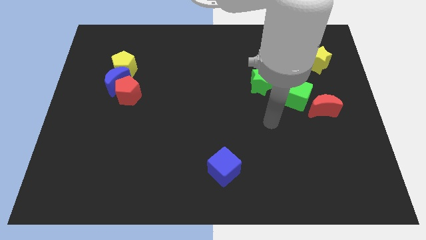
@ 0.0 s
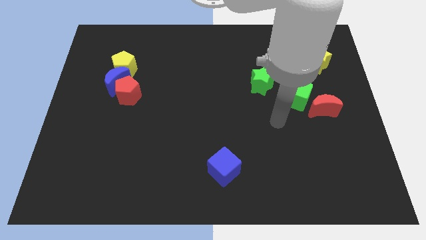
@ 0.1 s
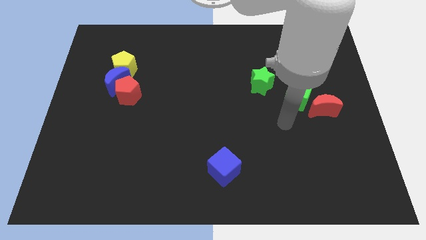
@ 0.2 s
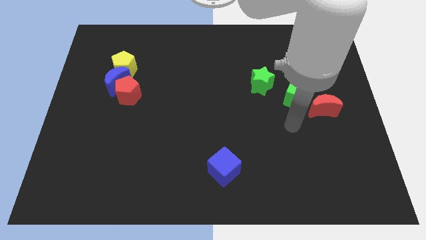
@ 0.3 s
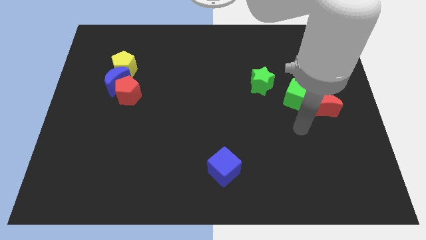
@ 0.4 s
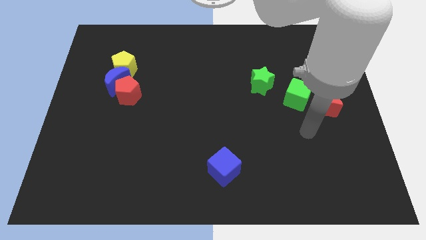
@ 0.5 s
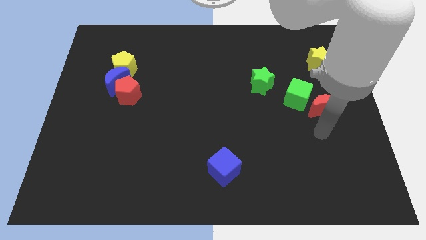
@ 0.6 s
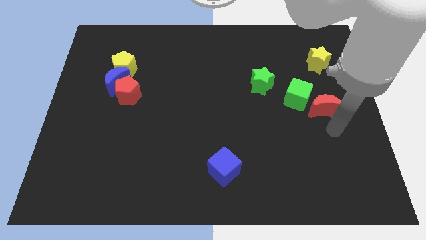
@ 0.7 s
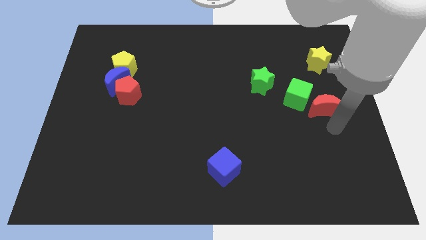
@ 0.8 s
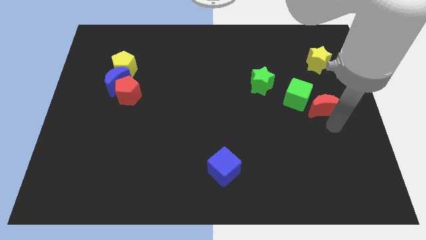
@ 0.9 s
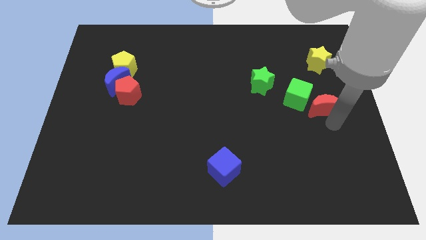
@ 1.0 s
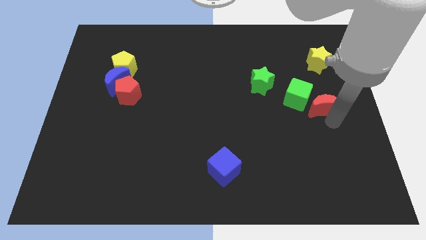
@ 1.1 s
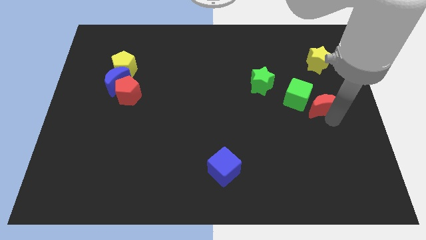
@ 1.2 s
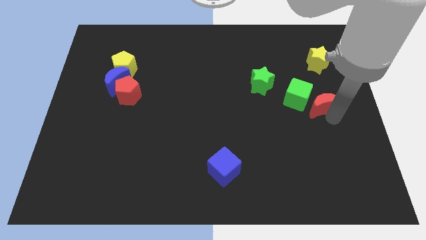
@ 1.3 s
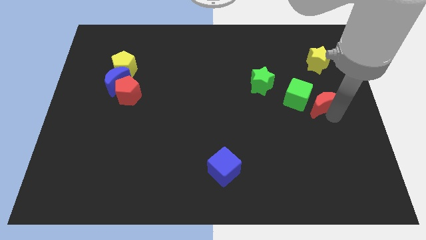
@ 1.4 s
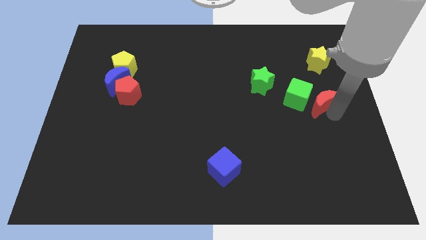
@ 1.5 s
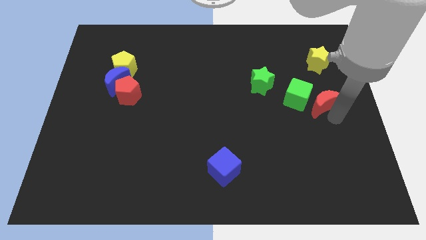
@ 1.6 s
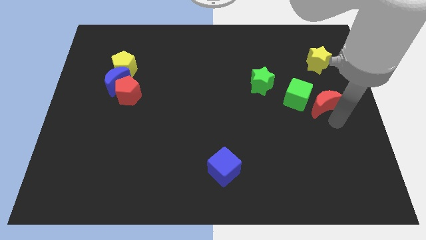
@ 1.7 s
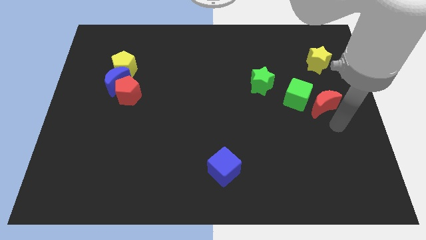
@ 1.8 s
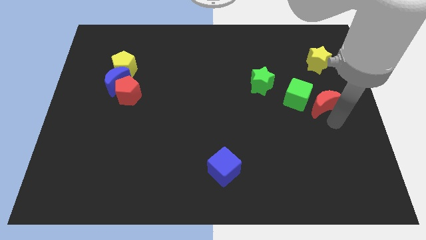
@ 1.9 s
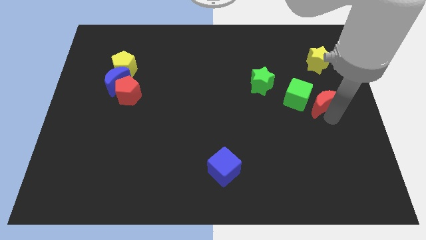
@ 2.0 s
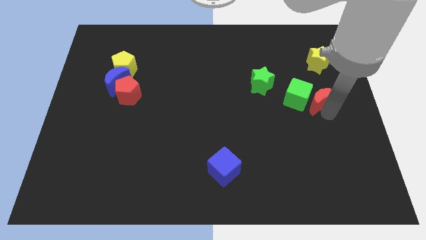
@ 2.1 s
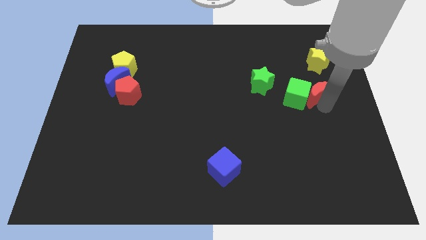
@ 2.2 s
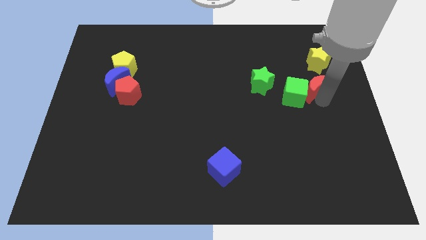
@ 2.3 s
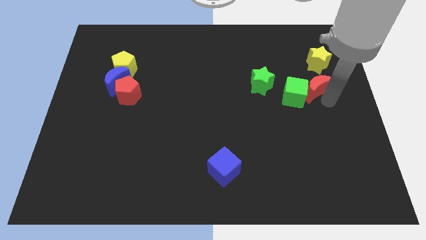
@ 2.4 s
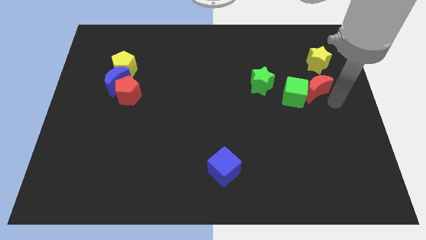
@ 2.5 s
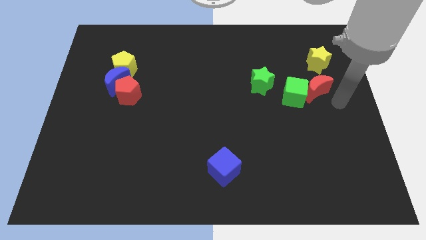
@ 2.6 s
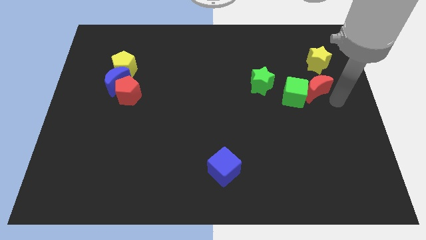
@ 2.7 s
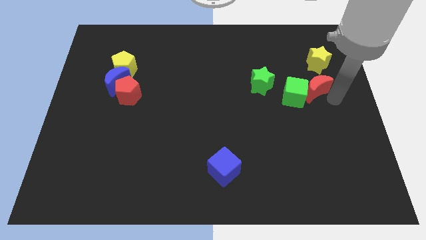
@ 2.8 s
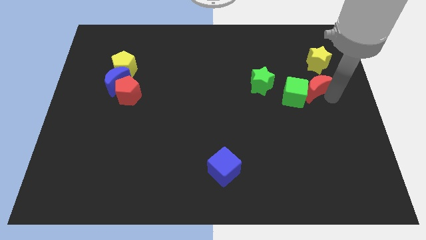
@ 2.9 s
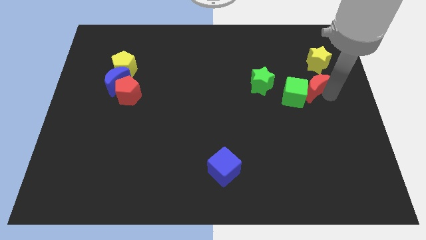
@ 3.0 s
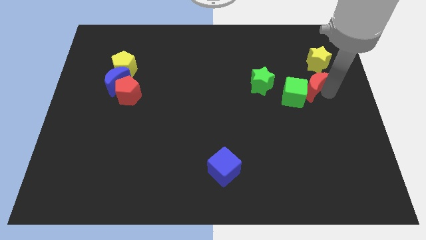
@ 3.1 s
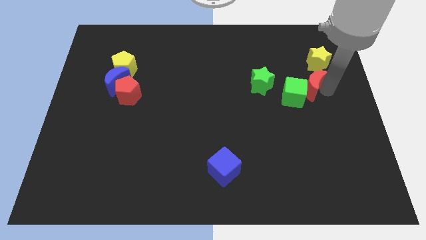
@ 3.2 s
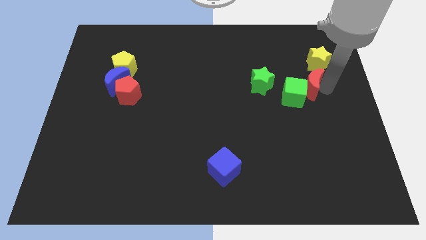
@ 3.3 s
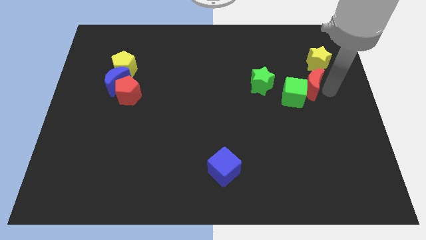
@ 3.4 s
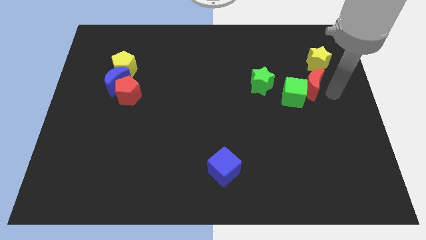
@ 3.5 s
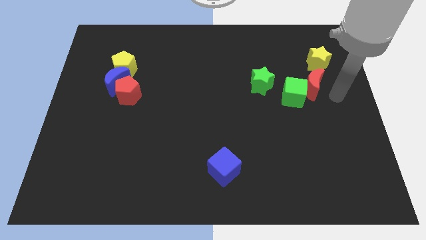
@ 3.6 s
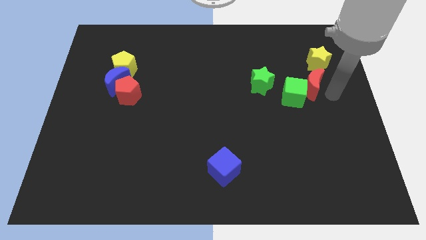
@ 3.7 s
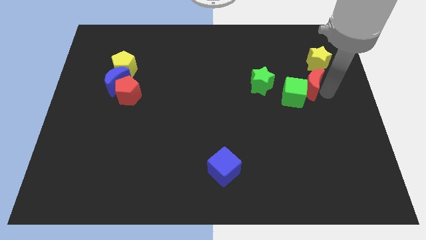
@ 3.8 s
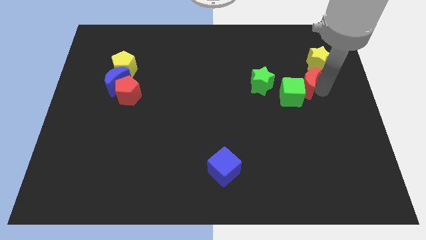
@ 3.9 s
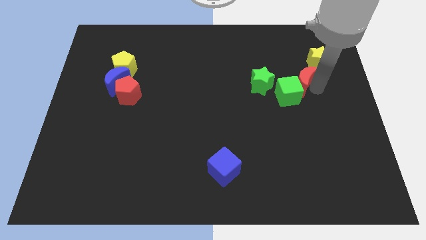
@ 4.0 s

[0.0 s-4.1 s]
move the red moon a little bit diagonally up and to the left

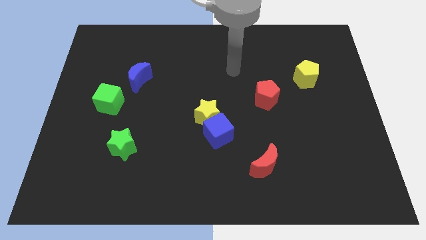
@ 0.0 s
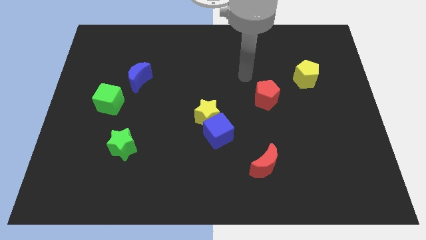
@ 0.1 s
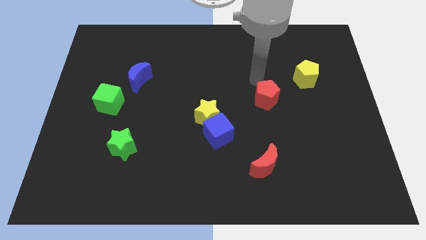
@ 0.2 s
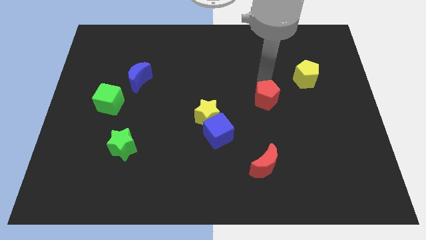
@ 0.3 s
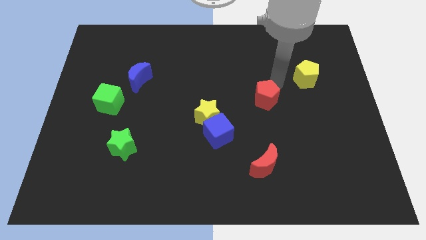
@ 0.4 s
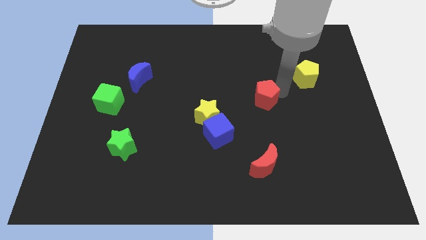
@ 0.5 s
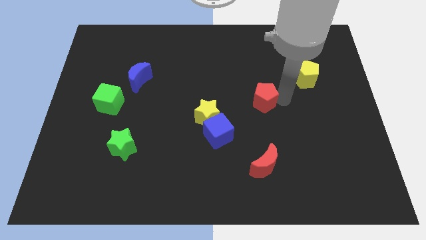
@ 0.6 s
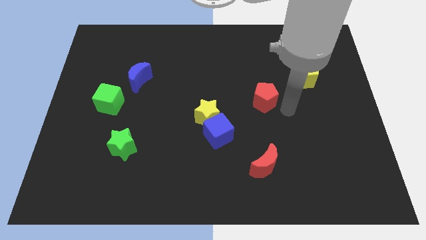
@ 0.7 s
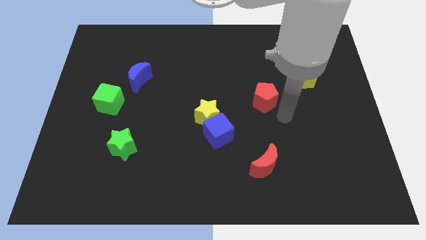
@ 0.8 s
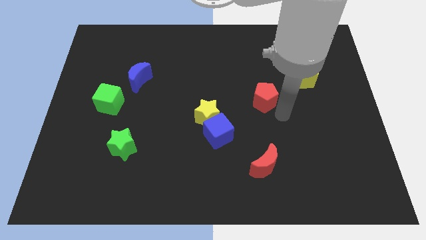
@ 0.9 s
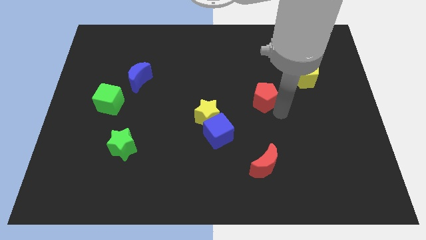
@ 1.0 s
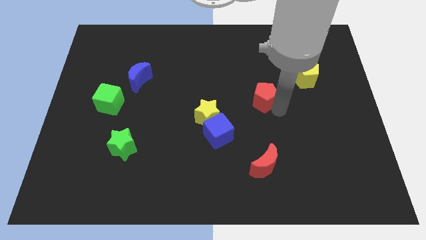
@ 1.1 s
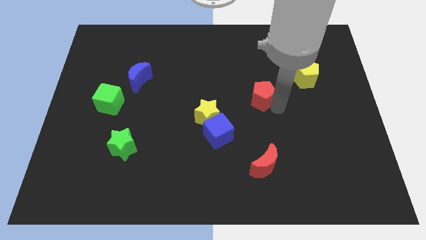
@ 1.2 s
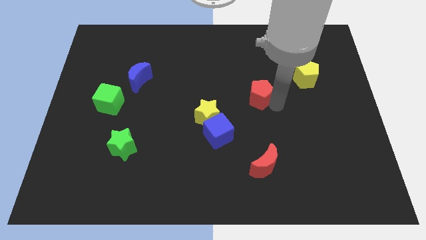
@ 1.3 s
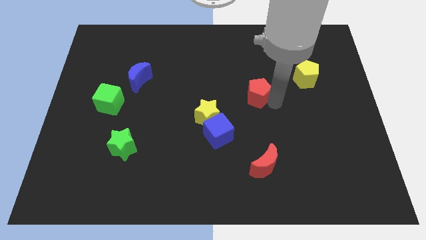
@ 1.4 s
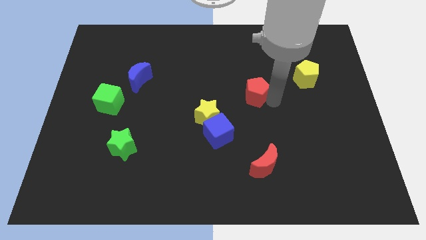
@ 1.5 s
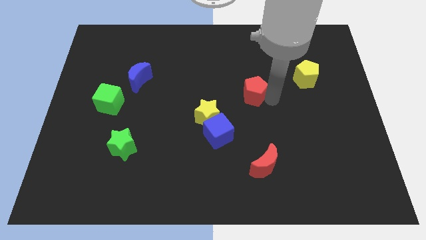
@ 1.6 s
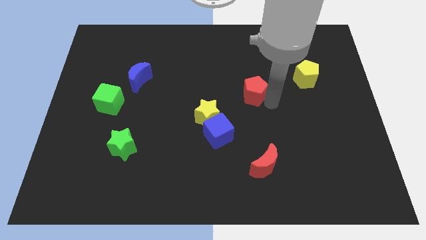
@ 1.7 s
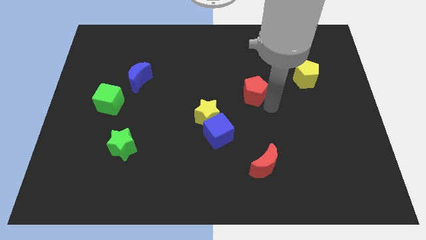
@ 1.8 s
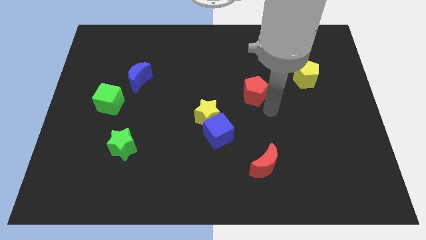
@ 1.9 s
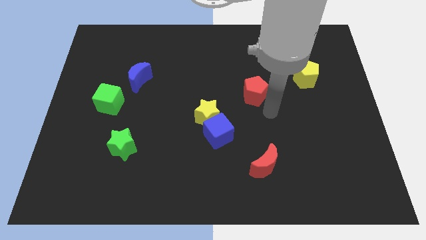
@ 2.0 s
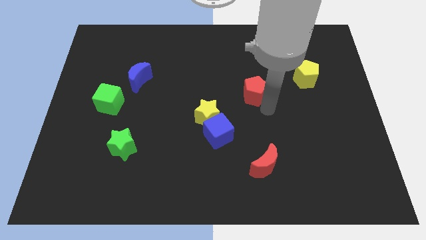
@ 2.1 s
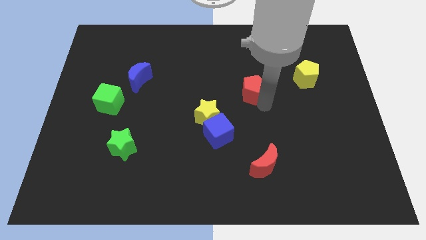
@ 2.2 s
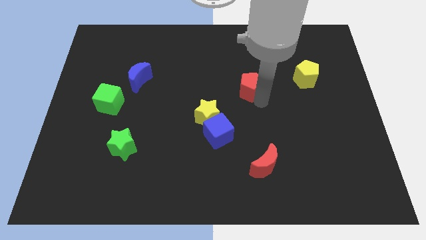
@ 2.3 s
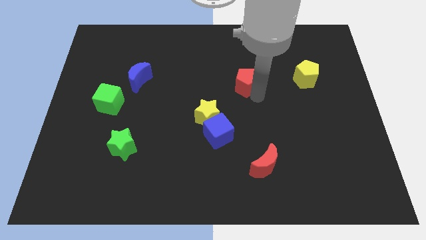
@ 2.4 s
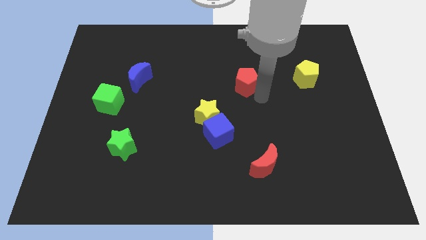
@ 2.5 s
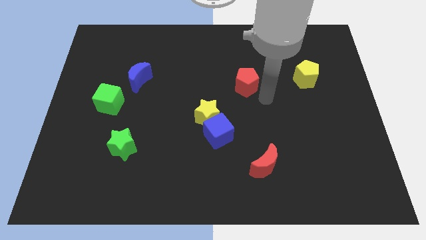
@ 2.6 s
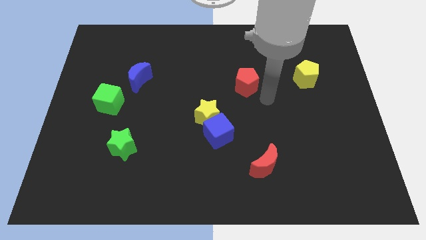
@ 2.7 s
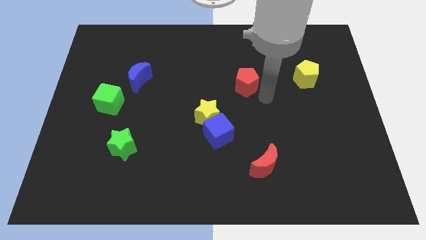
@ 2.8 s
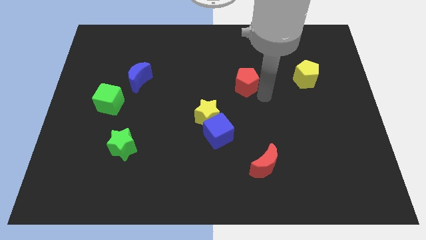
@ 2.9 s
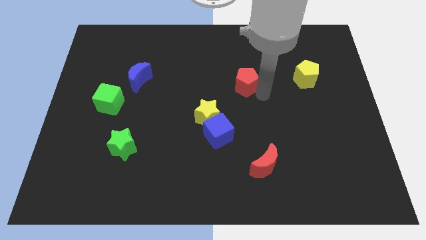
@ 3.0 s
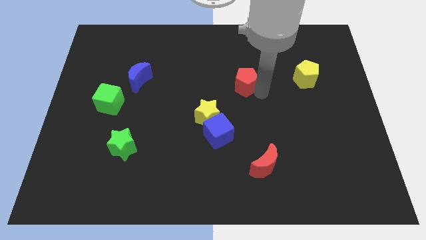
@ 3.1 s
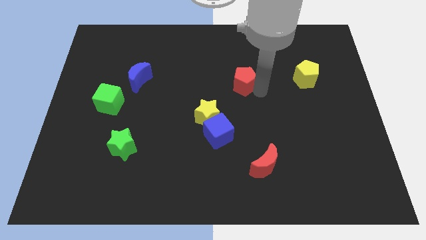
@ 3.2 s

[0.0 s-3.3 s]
move the red pentagon up and to the left a little

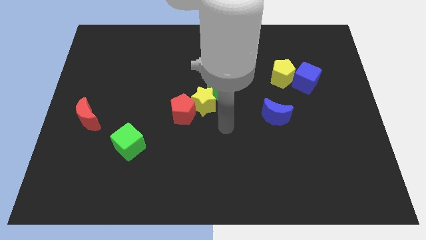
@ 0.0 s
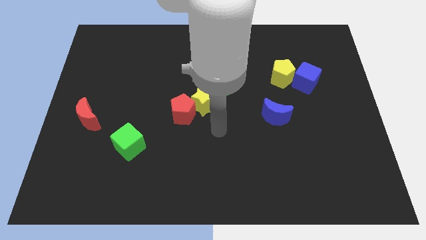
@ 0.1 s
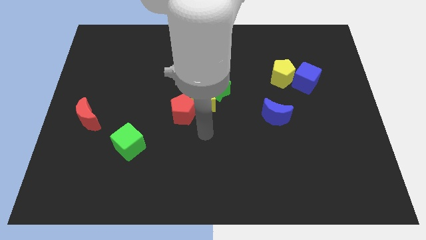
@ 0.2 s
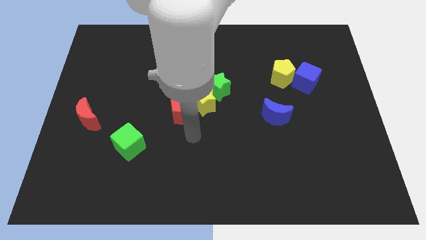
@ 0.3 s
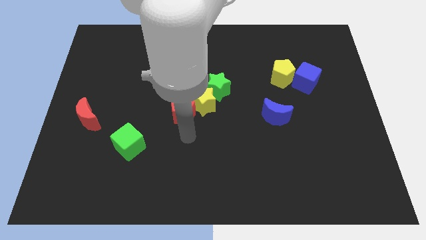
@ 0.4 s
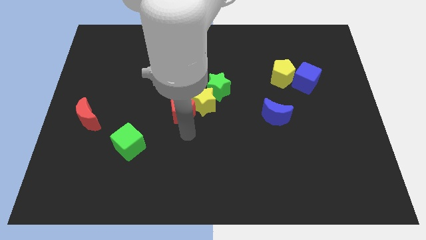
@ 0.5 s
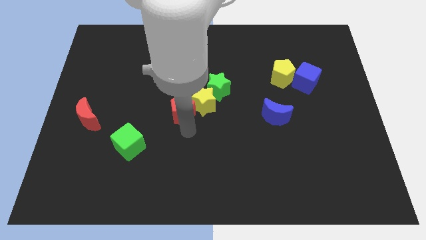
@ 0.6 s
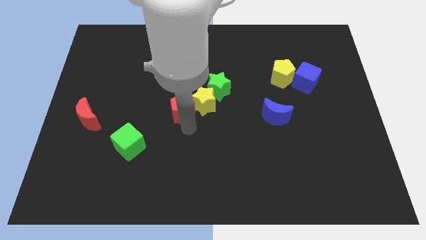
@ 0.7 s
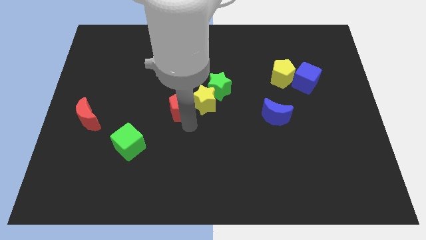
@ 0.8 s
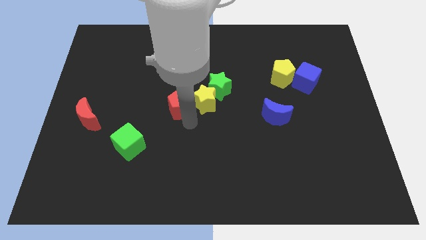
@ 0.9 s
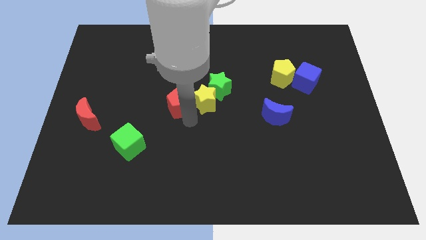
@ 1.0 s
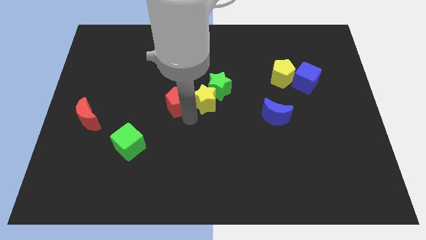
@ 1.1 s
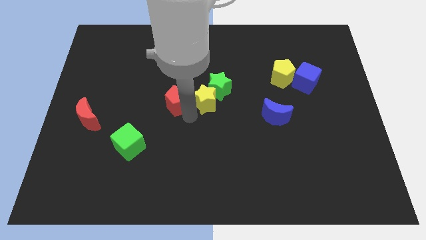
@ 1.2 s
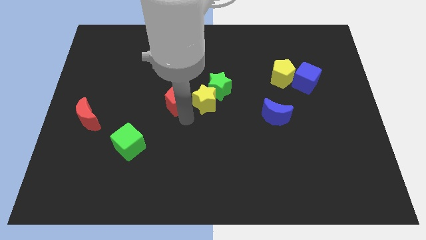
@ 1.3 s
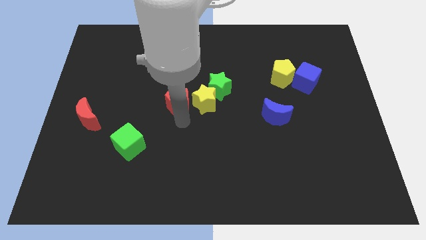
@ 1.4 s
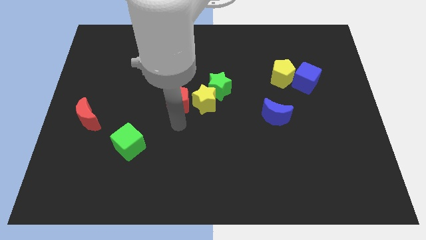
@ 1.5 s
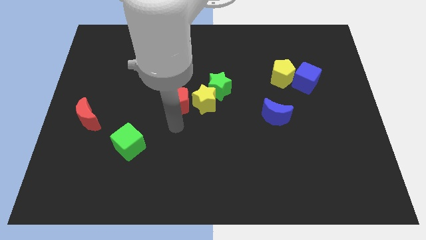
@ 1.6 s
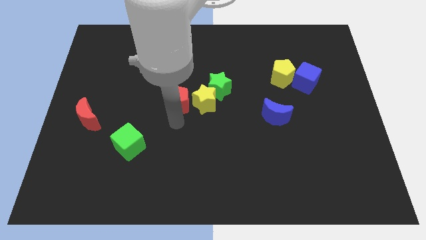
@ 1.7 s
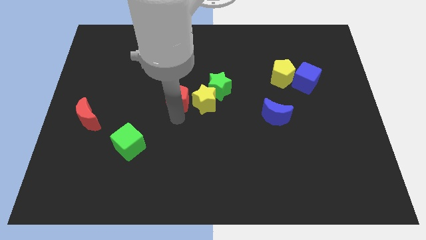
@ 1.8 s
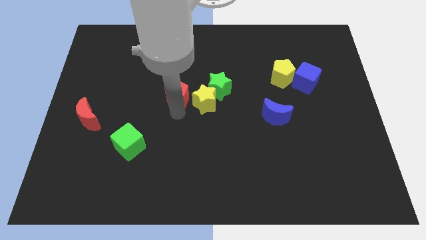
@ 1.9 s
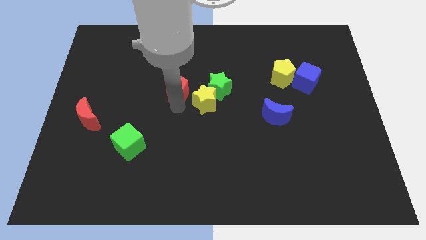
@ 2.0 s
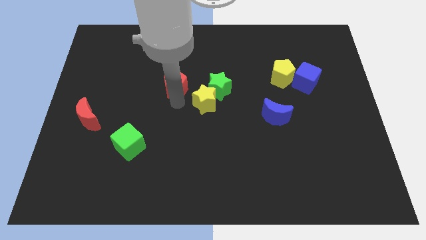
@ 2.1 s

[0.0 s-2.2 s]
push the red pentagon slightly upwards
